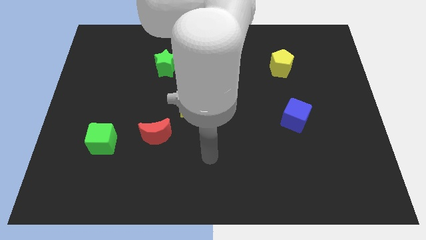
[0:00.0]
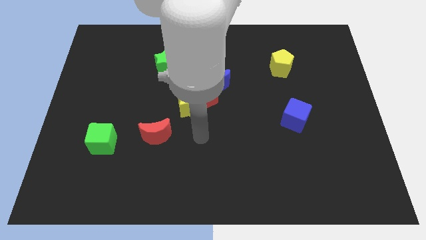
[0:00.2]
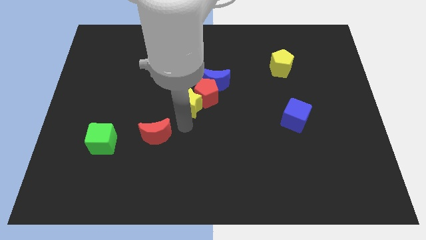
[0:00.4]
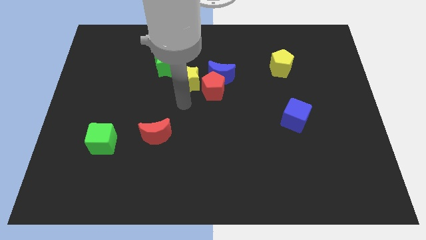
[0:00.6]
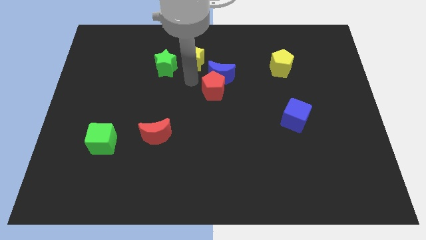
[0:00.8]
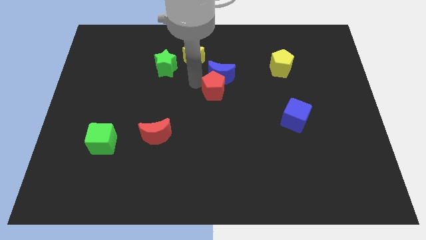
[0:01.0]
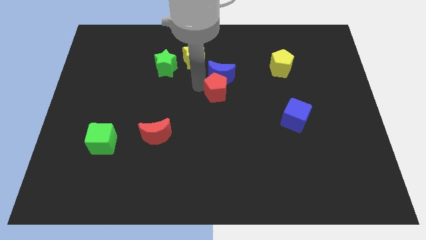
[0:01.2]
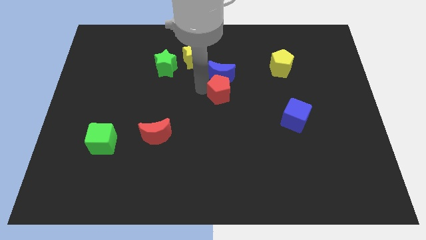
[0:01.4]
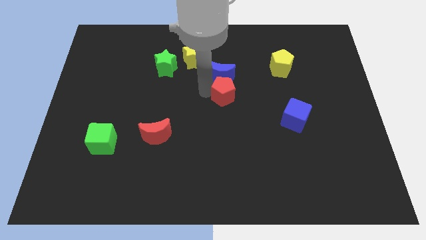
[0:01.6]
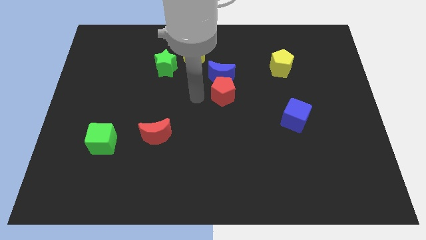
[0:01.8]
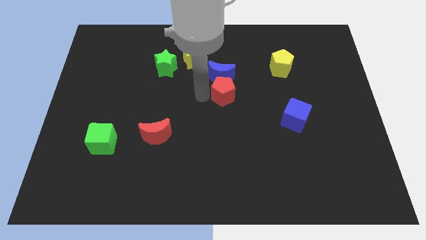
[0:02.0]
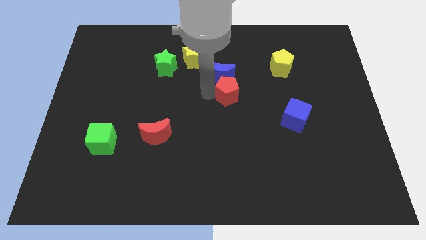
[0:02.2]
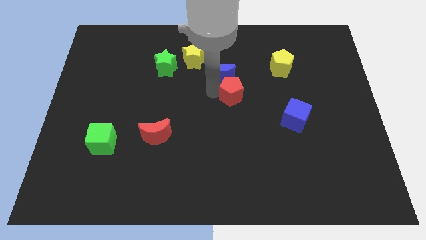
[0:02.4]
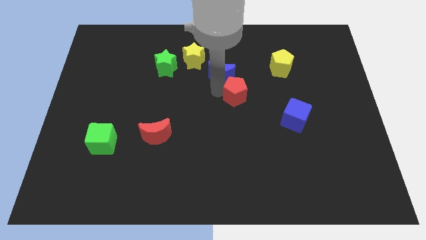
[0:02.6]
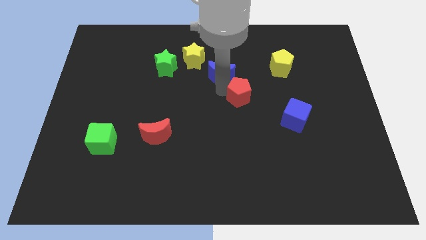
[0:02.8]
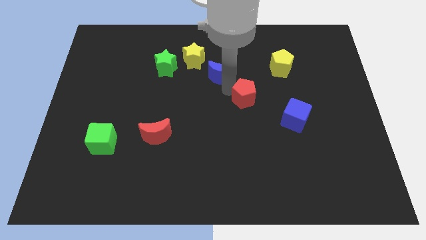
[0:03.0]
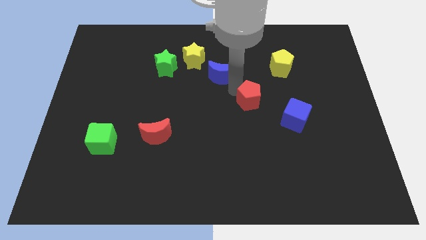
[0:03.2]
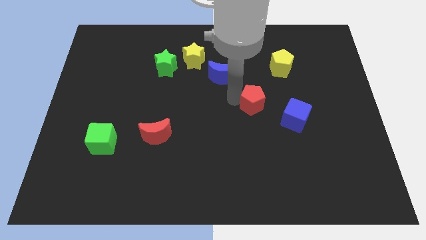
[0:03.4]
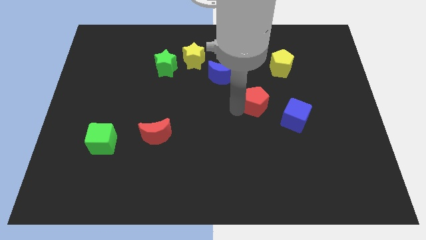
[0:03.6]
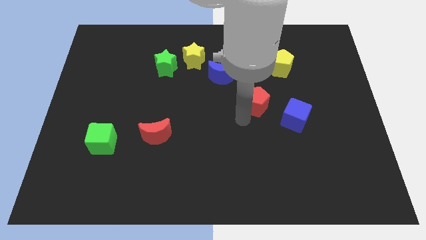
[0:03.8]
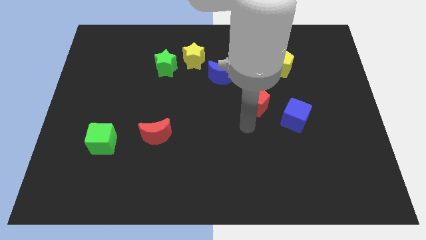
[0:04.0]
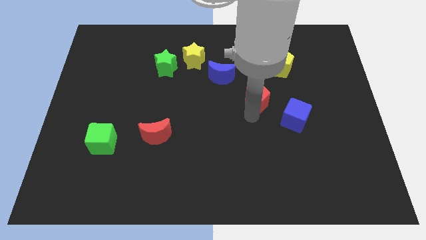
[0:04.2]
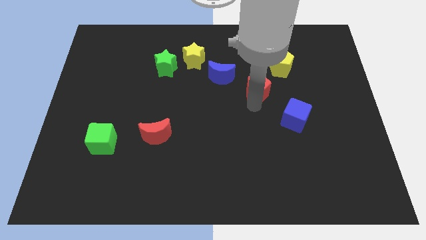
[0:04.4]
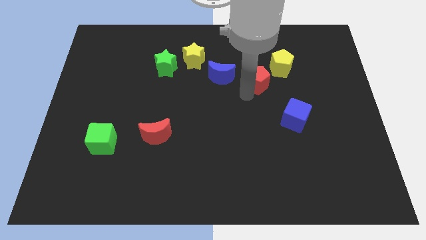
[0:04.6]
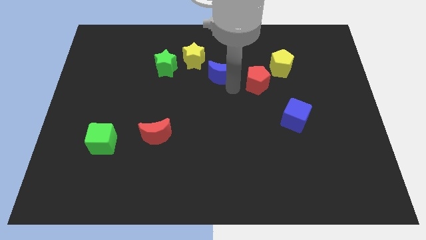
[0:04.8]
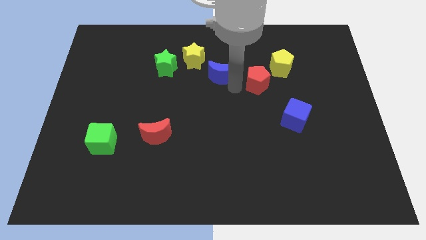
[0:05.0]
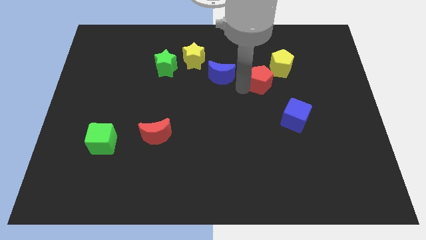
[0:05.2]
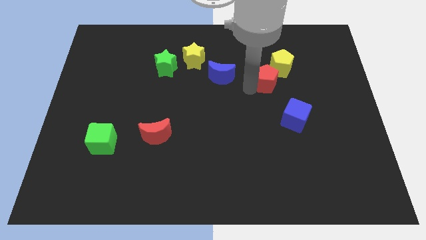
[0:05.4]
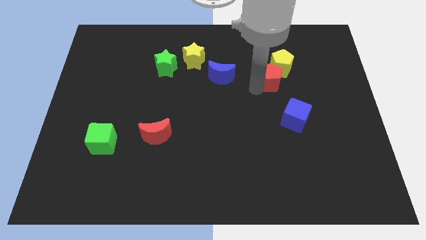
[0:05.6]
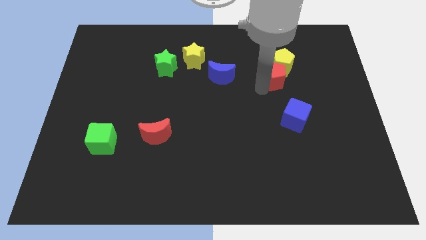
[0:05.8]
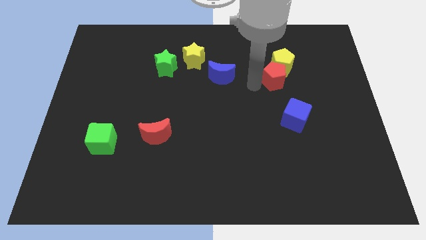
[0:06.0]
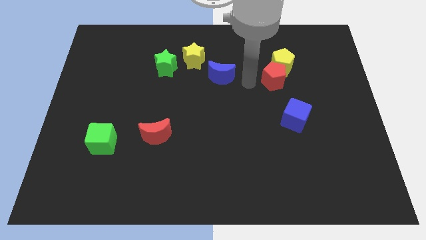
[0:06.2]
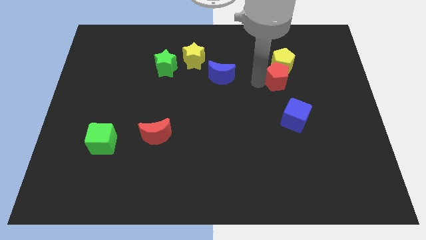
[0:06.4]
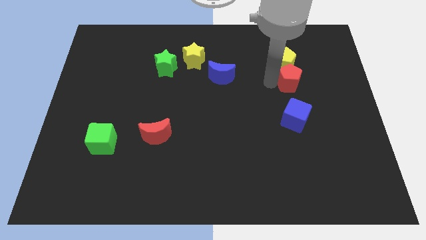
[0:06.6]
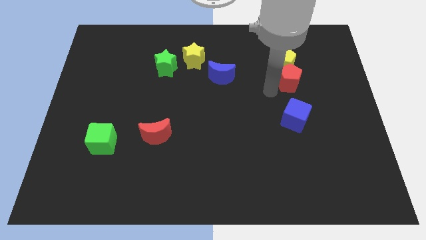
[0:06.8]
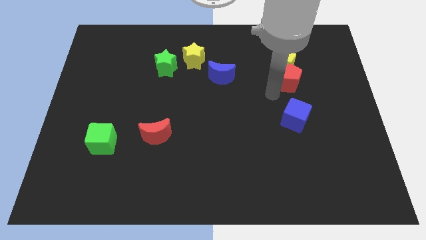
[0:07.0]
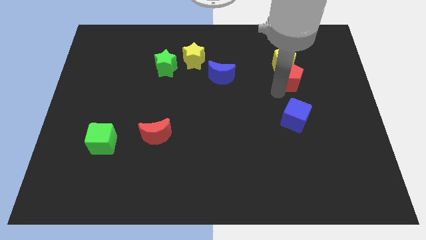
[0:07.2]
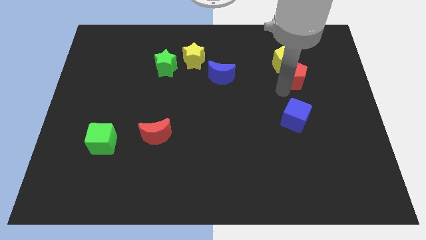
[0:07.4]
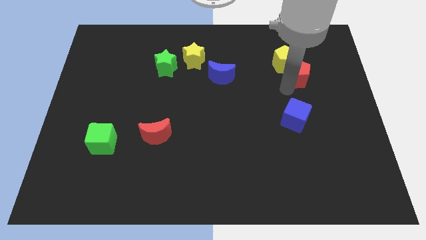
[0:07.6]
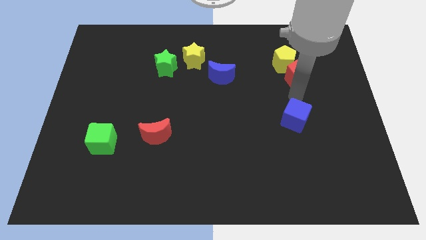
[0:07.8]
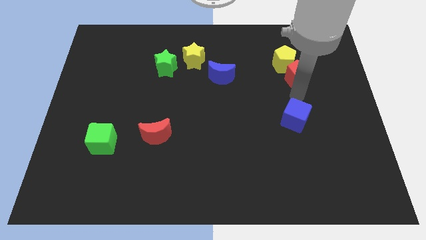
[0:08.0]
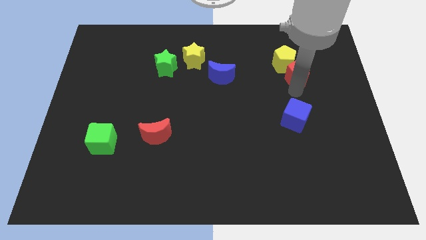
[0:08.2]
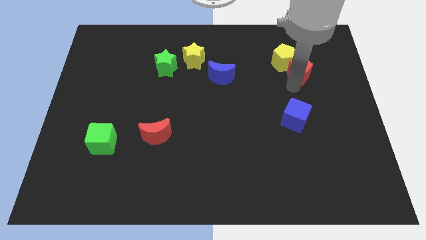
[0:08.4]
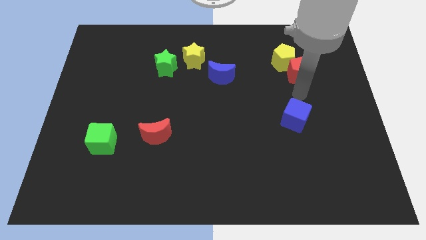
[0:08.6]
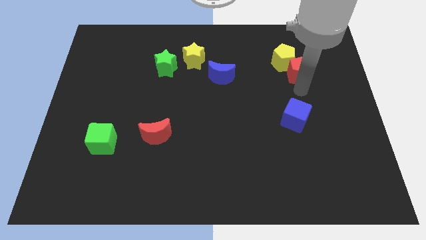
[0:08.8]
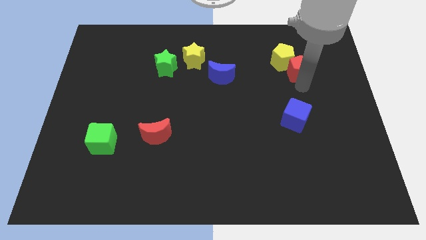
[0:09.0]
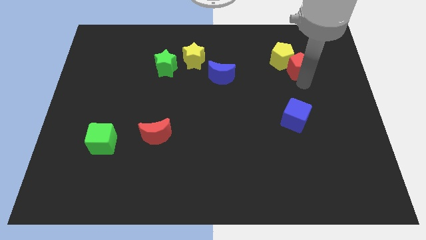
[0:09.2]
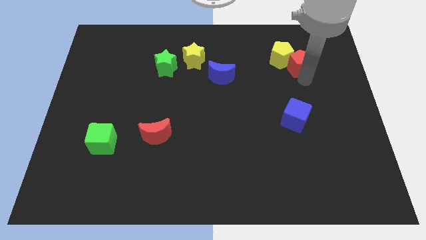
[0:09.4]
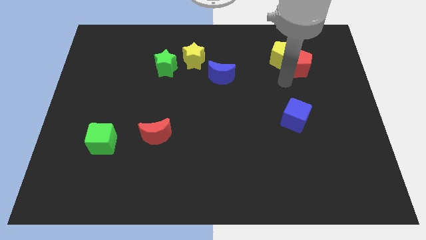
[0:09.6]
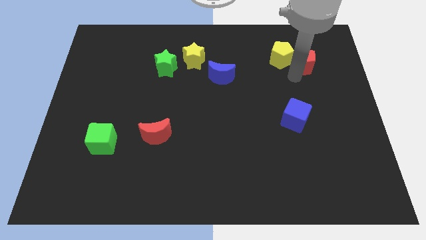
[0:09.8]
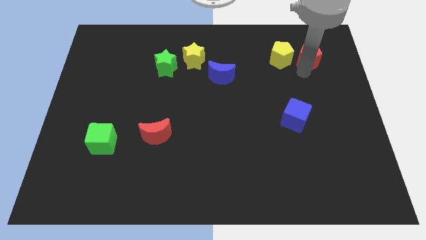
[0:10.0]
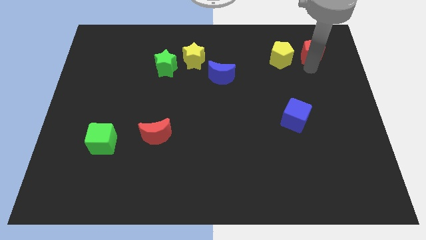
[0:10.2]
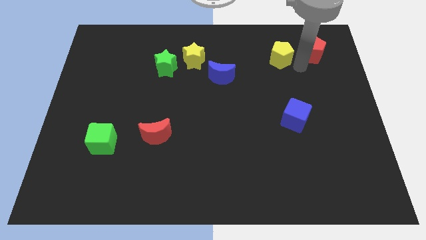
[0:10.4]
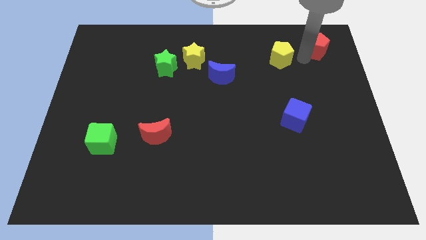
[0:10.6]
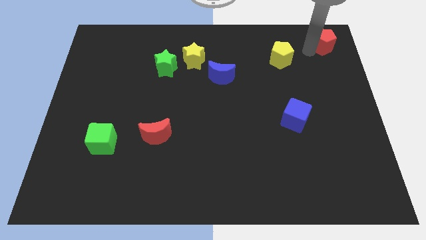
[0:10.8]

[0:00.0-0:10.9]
put the red pentagon to the top right of the board

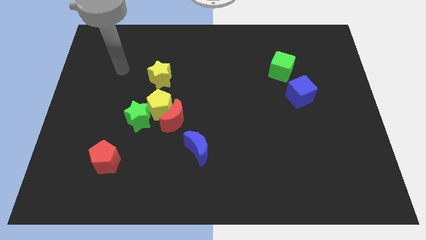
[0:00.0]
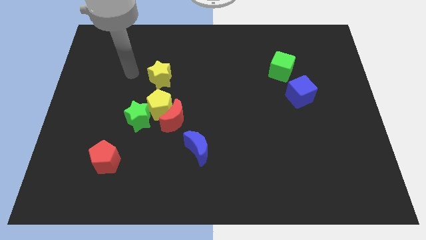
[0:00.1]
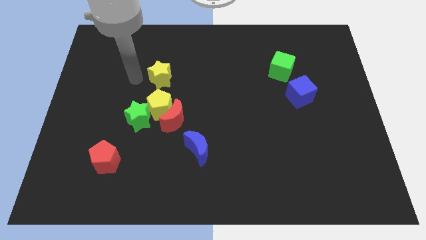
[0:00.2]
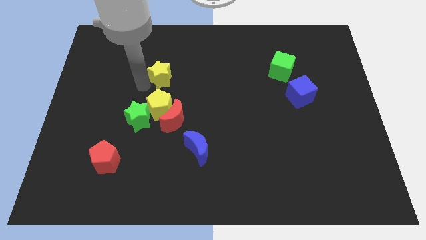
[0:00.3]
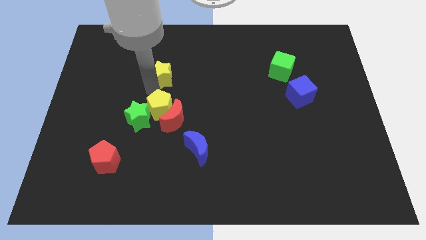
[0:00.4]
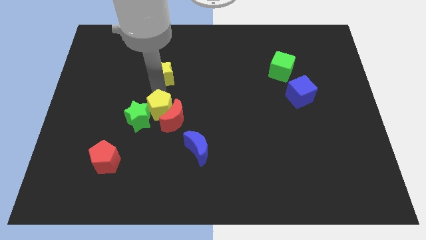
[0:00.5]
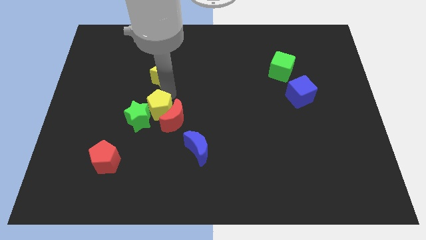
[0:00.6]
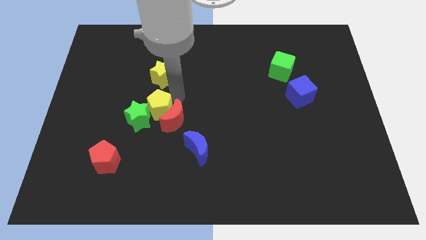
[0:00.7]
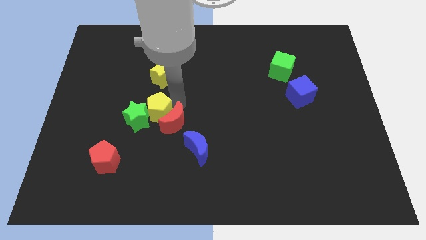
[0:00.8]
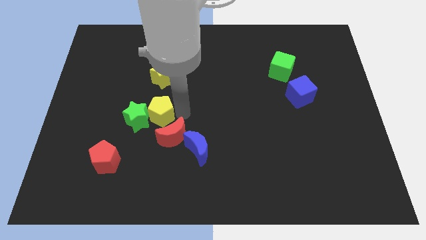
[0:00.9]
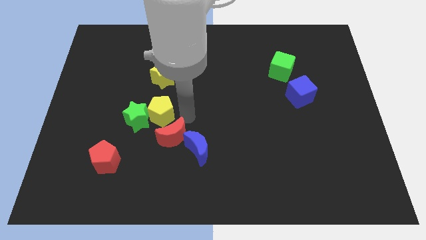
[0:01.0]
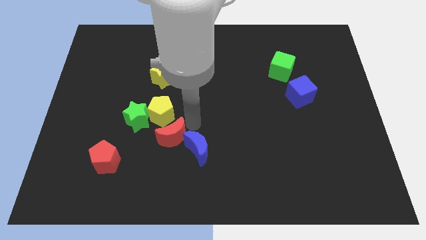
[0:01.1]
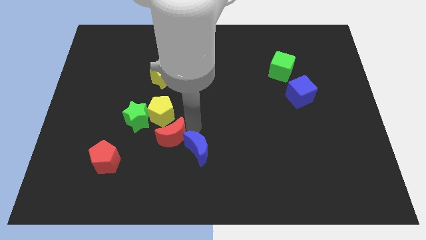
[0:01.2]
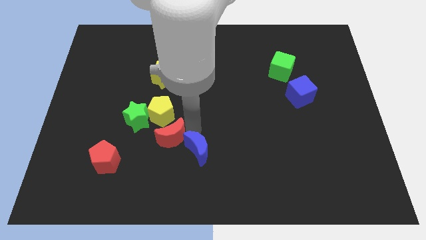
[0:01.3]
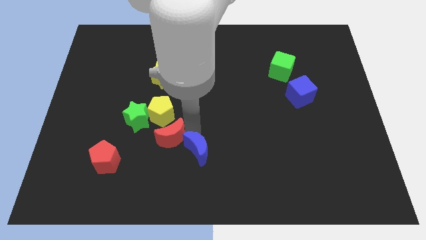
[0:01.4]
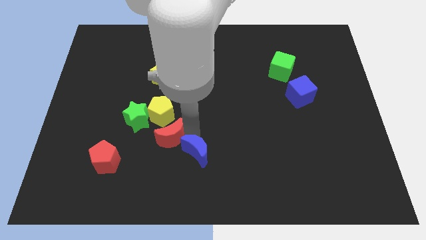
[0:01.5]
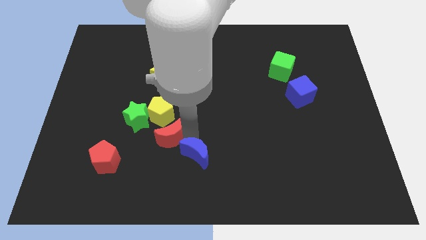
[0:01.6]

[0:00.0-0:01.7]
slide the blue moon to the bottom
